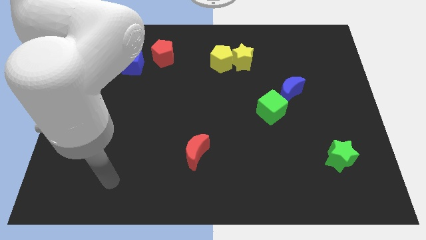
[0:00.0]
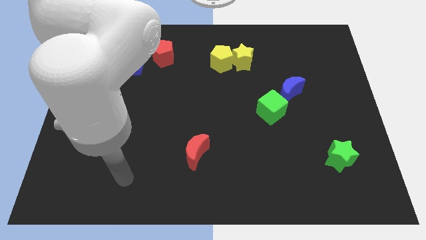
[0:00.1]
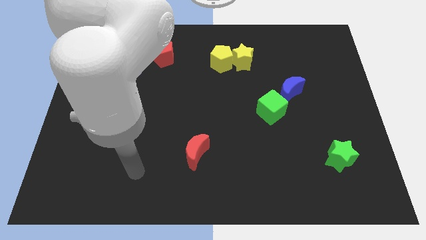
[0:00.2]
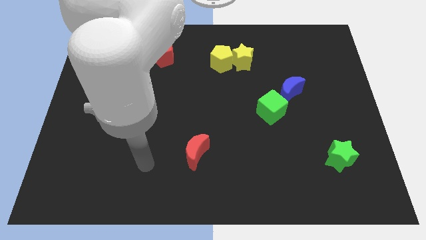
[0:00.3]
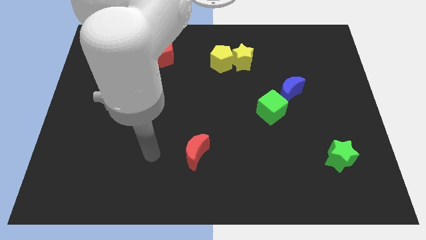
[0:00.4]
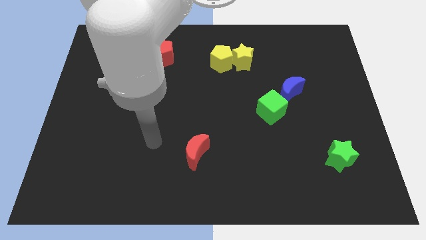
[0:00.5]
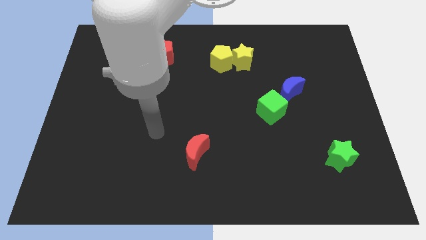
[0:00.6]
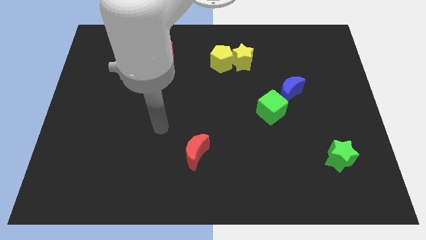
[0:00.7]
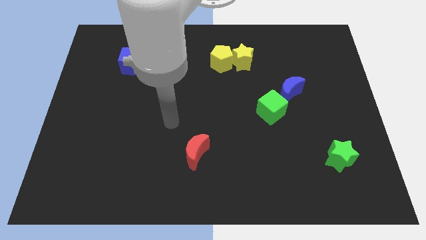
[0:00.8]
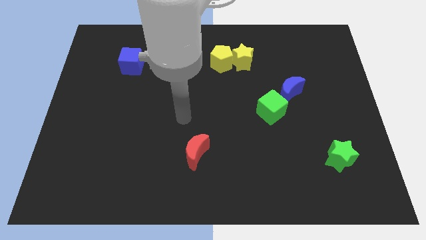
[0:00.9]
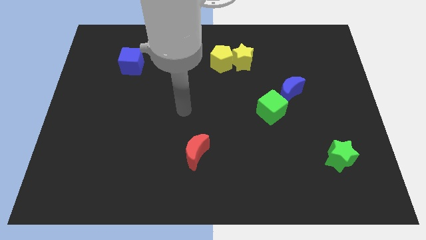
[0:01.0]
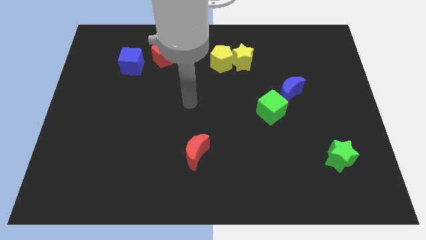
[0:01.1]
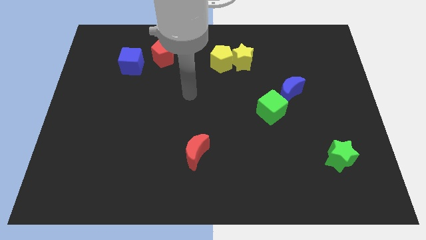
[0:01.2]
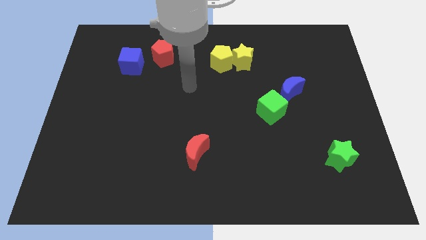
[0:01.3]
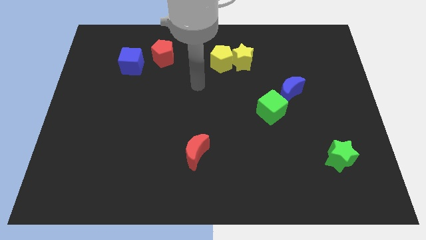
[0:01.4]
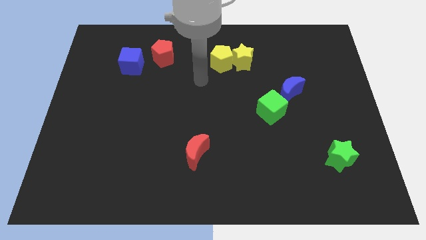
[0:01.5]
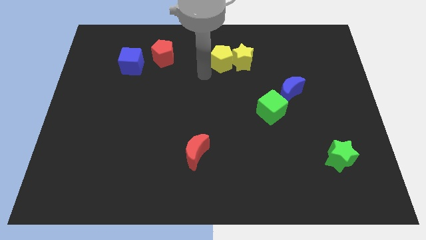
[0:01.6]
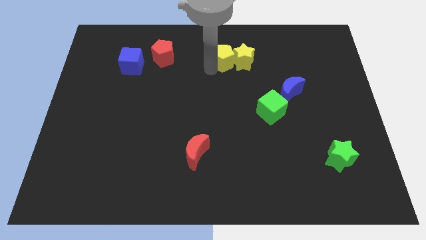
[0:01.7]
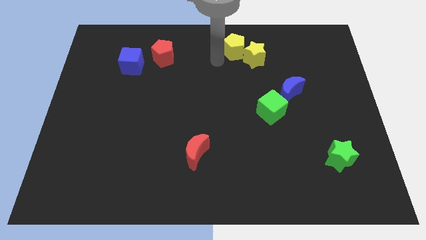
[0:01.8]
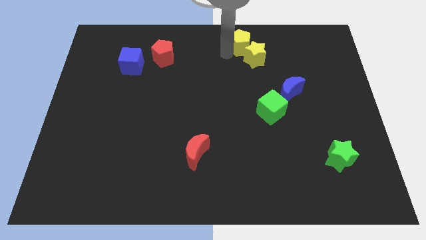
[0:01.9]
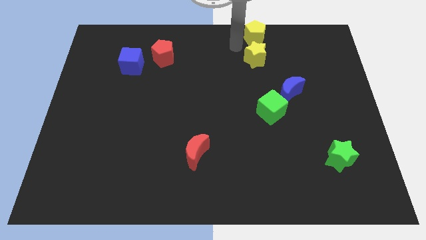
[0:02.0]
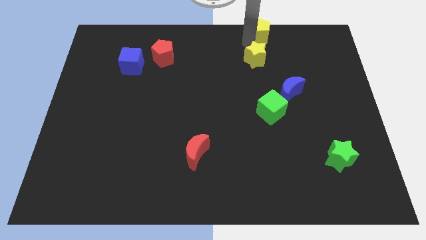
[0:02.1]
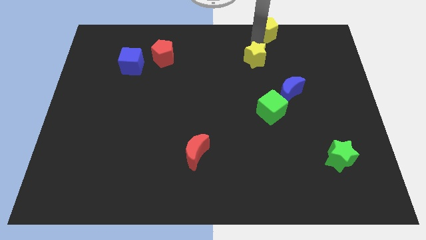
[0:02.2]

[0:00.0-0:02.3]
pull the yellow star apart from the yellow pentagon

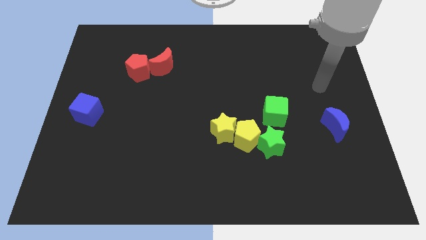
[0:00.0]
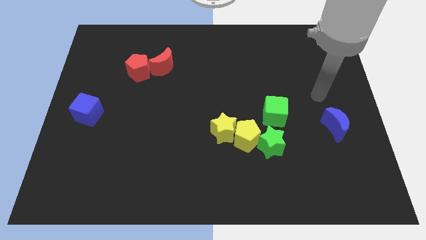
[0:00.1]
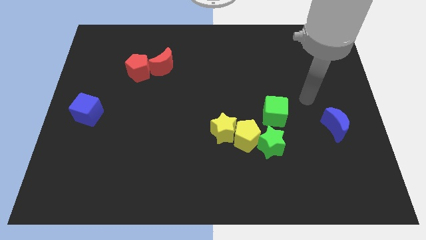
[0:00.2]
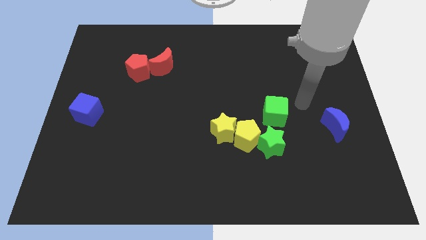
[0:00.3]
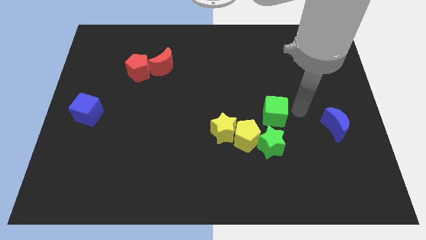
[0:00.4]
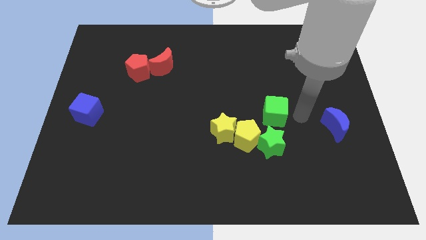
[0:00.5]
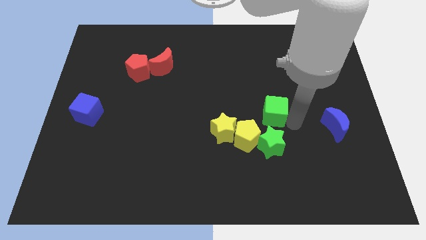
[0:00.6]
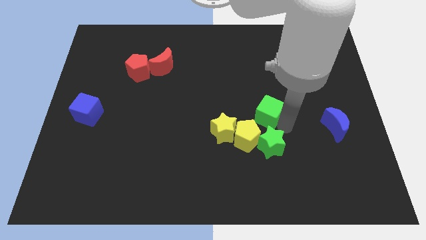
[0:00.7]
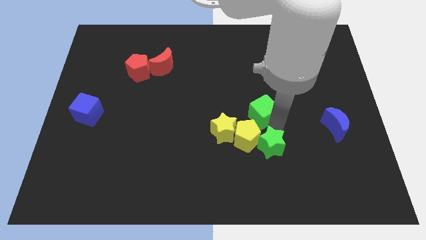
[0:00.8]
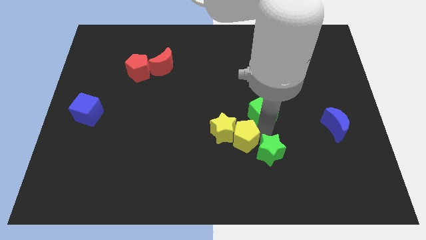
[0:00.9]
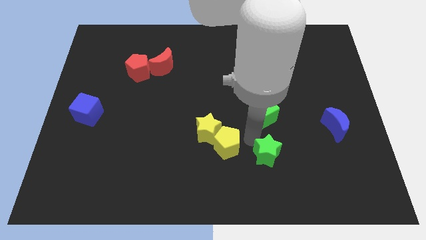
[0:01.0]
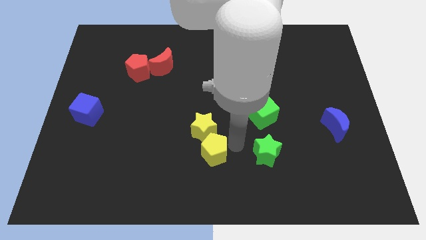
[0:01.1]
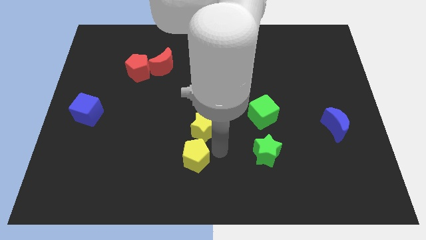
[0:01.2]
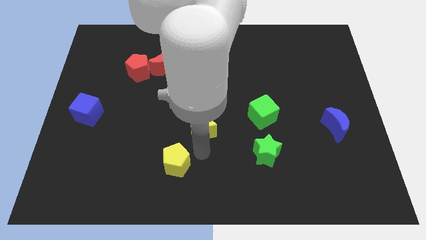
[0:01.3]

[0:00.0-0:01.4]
move the yellow star away from the yellow pentagon

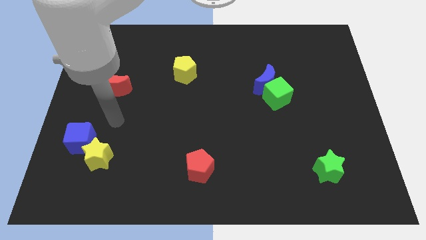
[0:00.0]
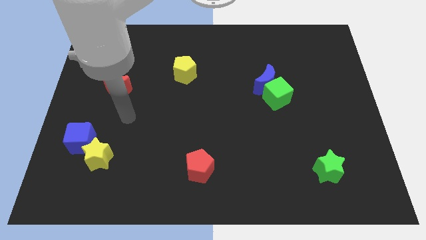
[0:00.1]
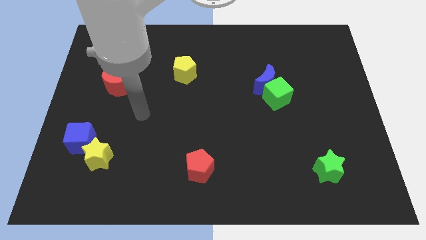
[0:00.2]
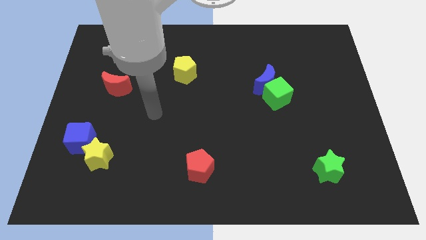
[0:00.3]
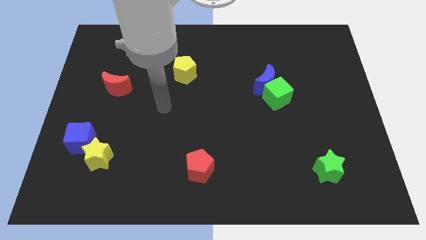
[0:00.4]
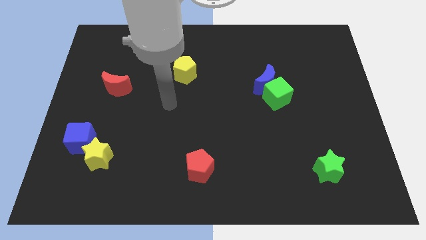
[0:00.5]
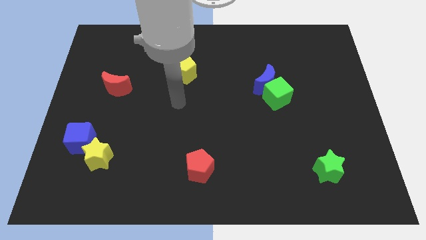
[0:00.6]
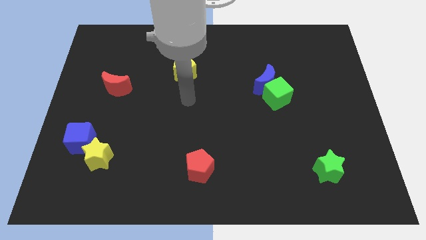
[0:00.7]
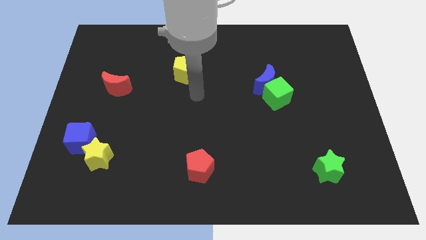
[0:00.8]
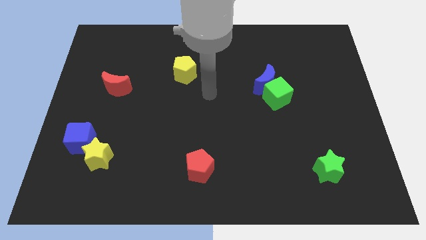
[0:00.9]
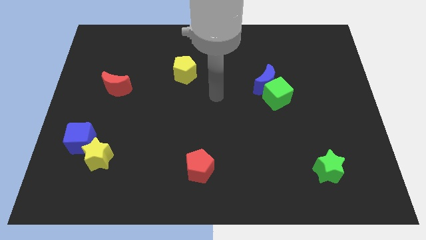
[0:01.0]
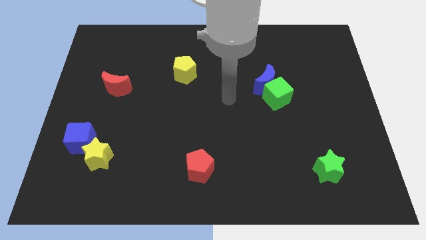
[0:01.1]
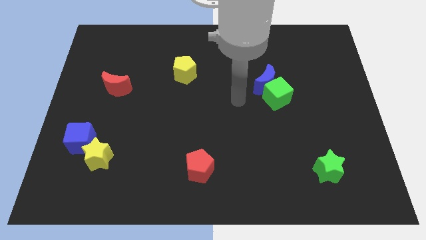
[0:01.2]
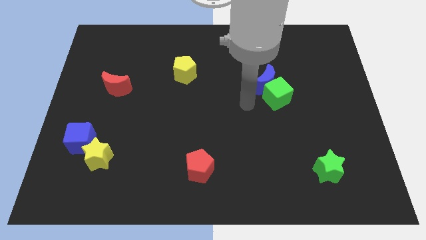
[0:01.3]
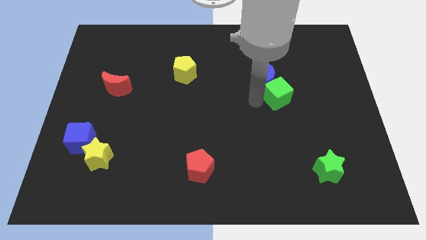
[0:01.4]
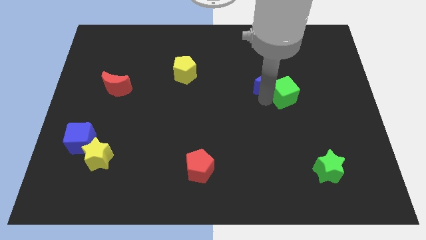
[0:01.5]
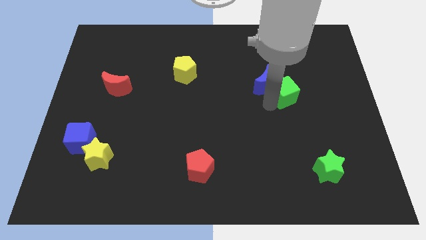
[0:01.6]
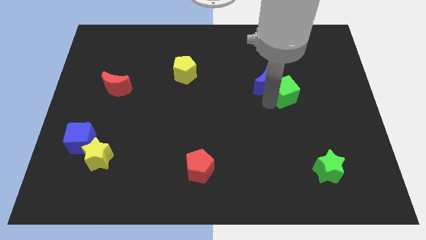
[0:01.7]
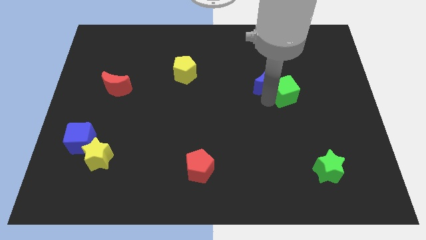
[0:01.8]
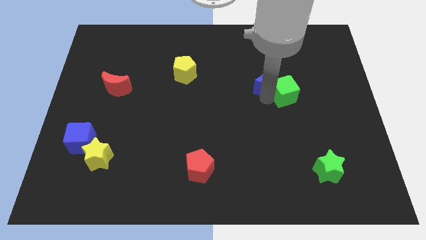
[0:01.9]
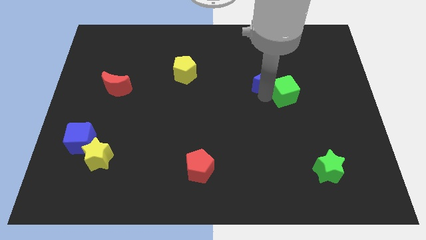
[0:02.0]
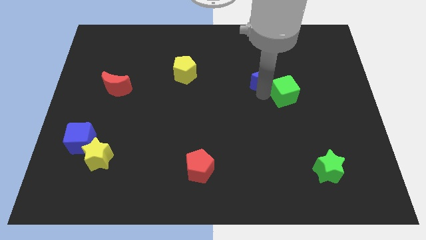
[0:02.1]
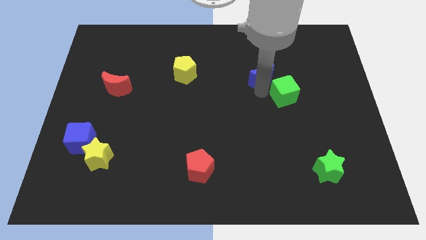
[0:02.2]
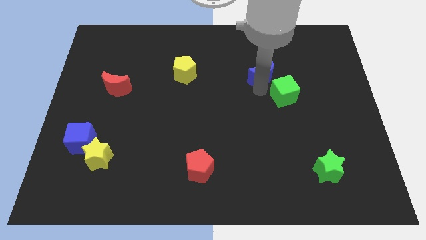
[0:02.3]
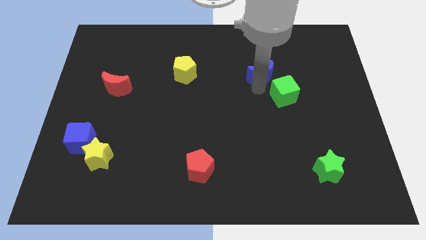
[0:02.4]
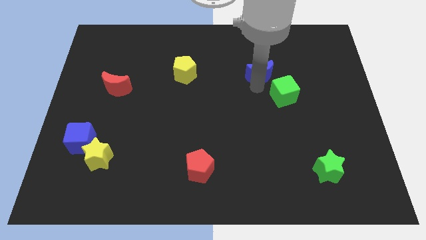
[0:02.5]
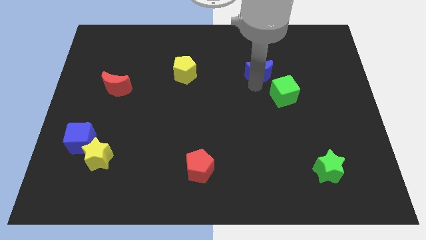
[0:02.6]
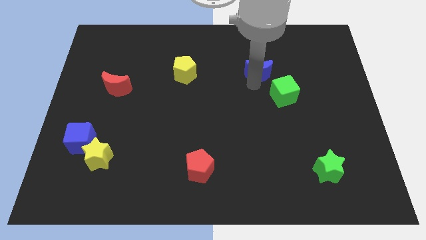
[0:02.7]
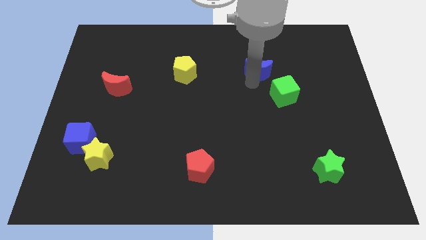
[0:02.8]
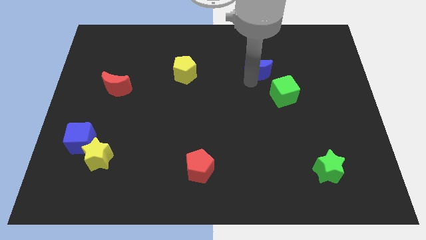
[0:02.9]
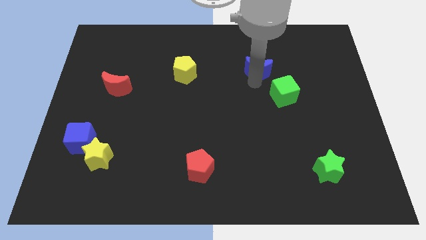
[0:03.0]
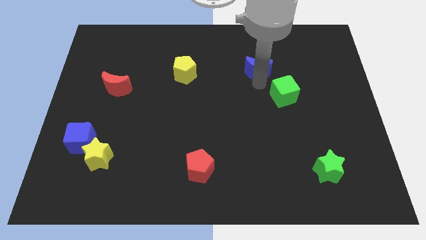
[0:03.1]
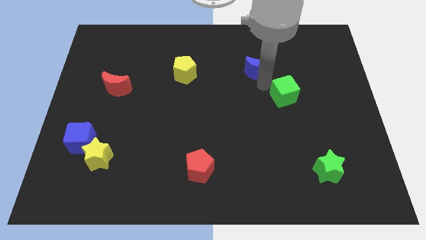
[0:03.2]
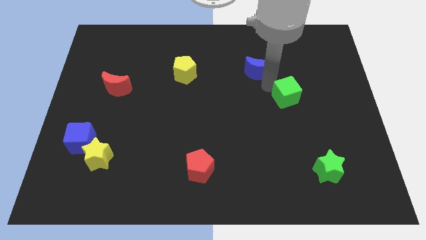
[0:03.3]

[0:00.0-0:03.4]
pull the blue moon apart from the green cube

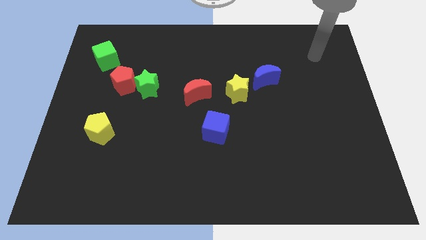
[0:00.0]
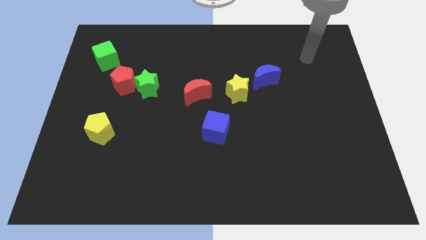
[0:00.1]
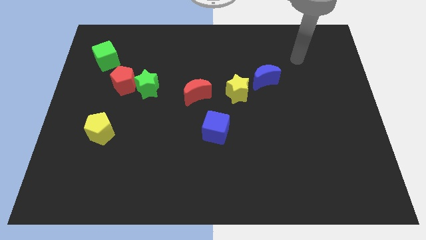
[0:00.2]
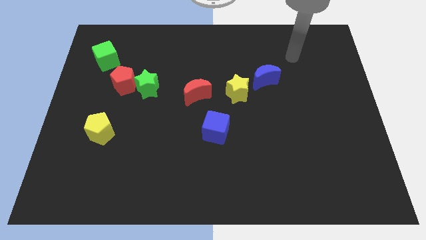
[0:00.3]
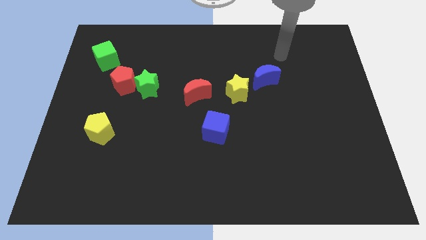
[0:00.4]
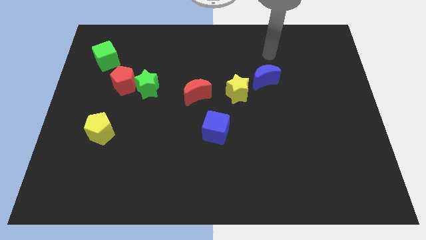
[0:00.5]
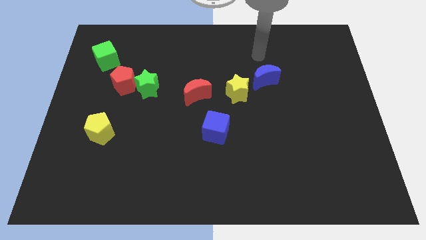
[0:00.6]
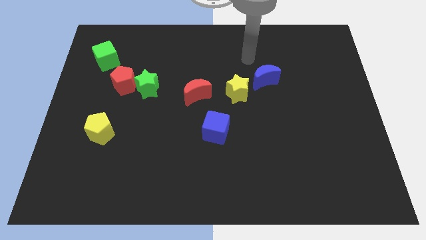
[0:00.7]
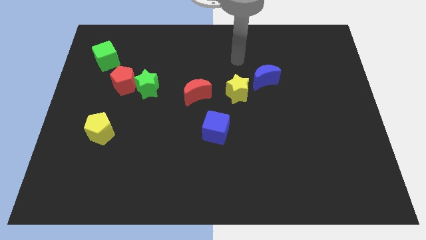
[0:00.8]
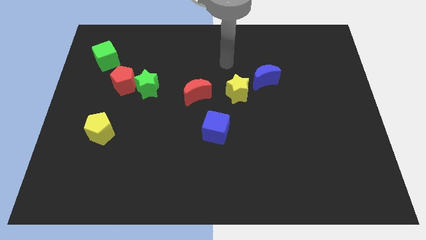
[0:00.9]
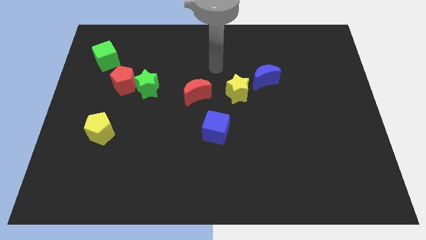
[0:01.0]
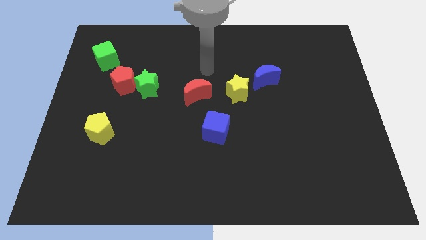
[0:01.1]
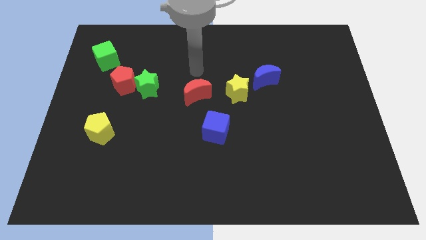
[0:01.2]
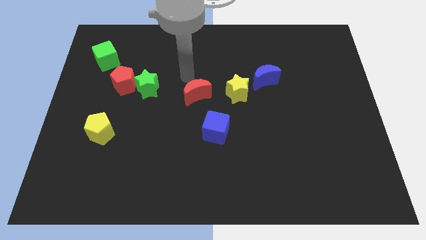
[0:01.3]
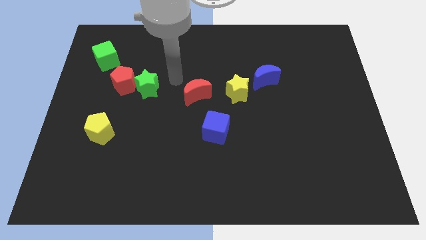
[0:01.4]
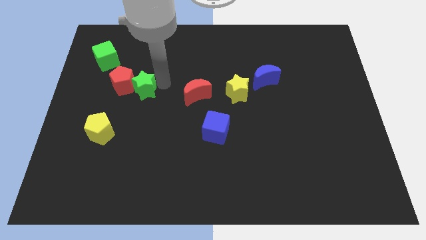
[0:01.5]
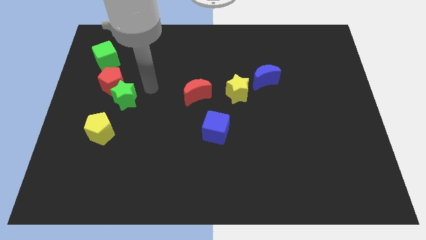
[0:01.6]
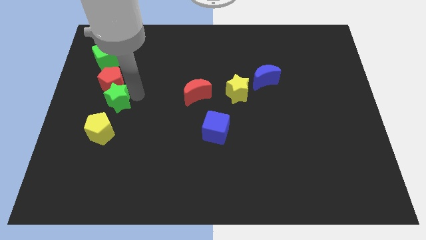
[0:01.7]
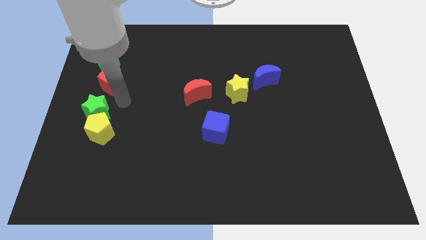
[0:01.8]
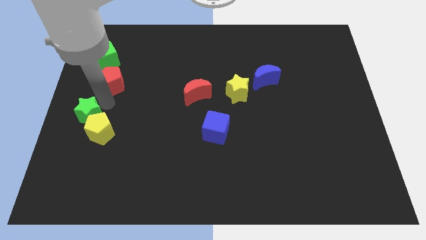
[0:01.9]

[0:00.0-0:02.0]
pull the red pentagon apart from the green star

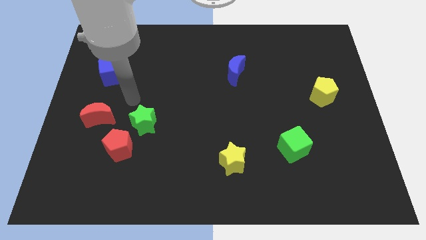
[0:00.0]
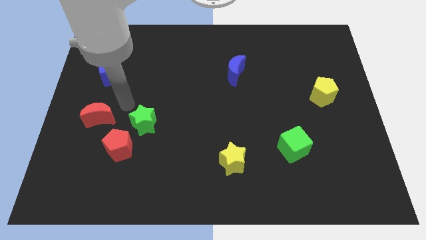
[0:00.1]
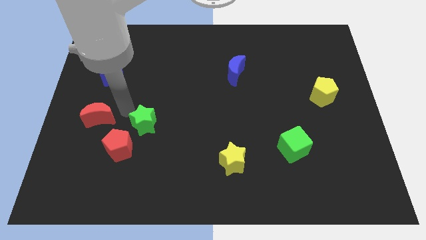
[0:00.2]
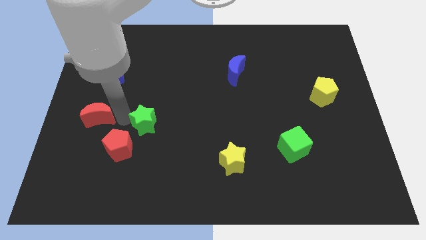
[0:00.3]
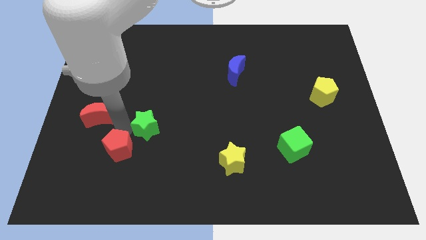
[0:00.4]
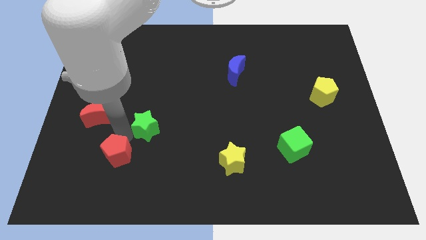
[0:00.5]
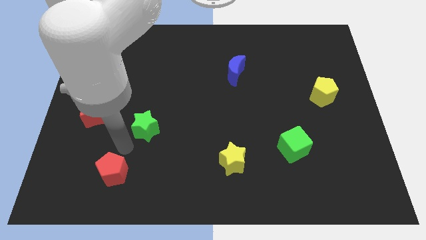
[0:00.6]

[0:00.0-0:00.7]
separate the green star from the red pentagon
